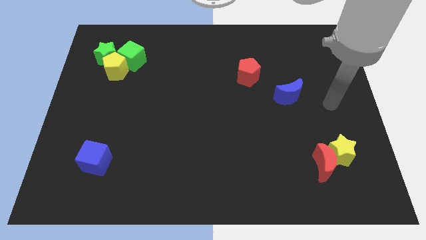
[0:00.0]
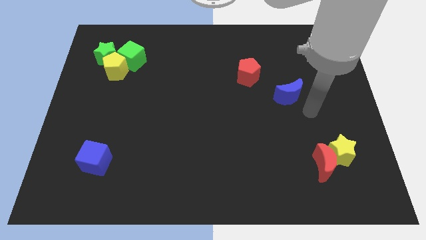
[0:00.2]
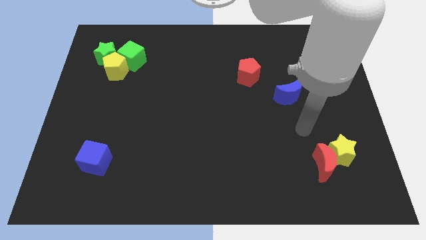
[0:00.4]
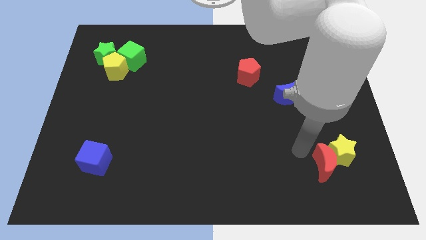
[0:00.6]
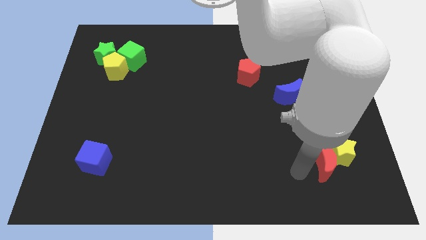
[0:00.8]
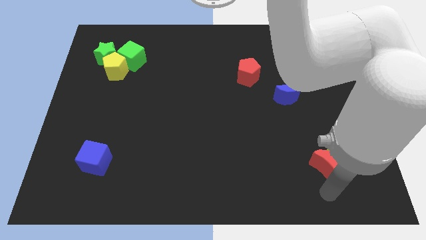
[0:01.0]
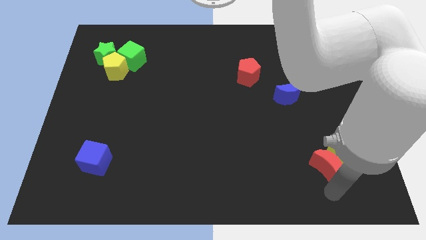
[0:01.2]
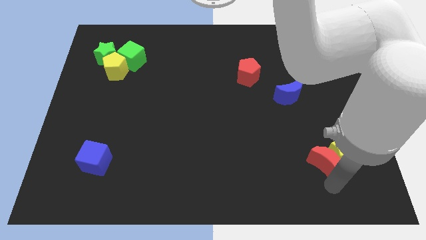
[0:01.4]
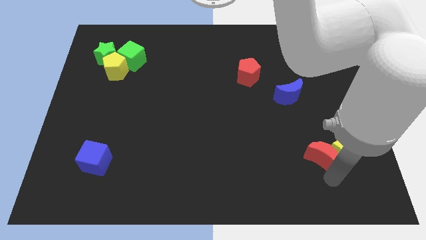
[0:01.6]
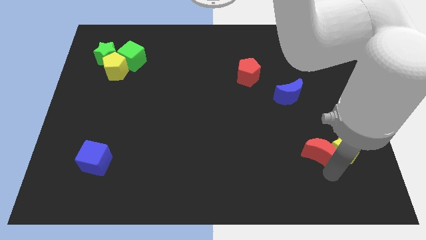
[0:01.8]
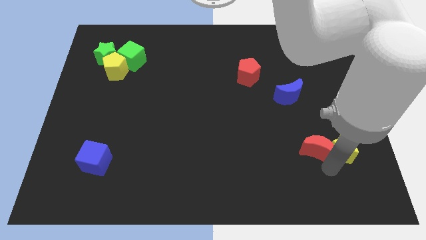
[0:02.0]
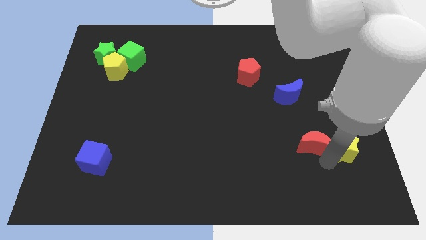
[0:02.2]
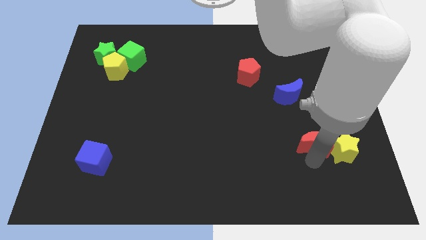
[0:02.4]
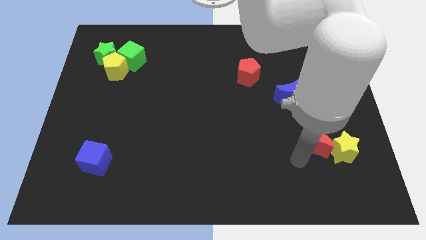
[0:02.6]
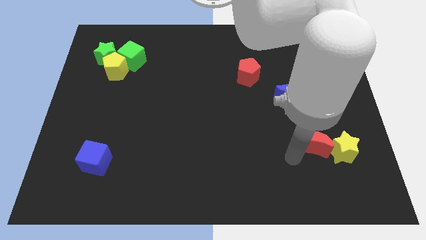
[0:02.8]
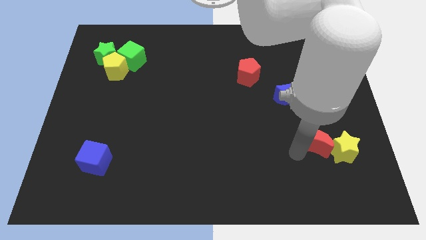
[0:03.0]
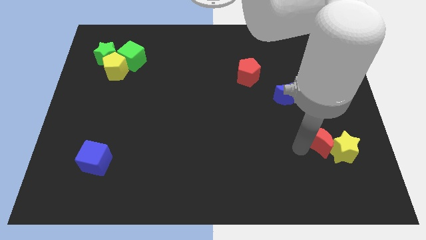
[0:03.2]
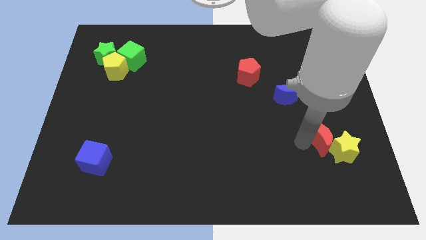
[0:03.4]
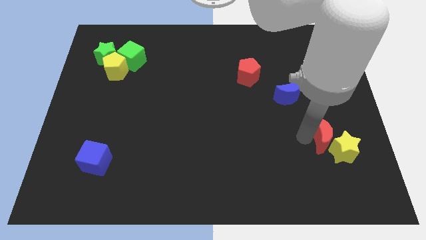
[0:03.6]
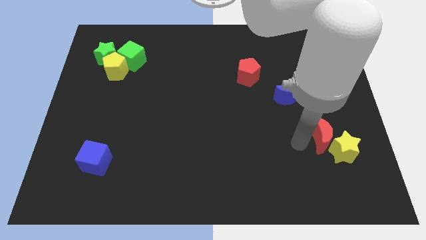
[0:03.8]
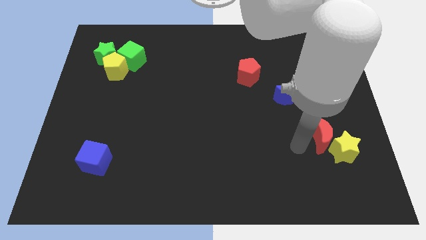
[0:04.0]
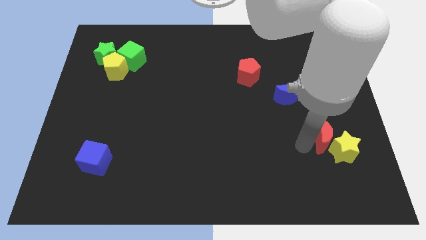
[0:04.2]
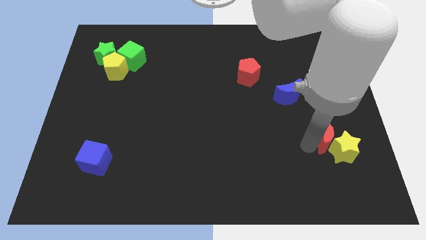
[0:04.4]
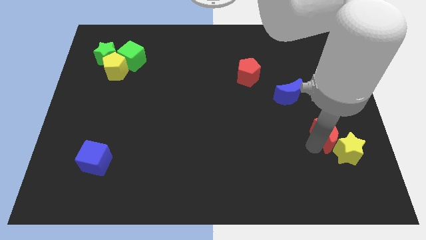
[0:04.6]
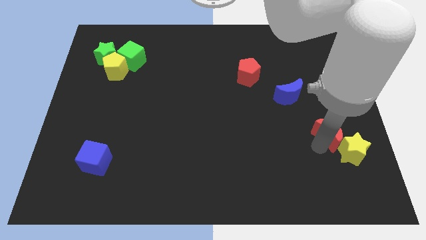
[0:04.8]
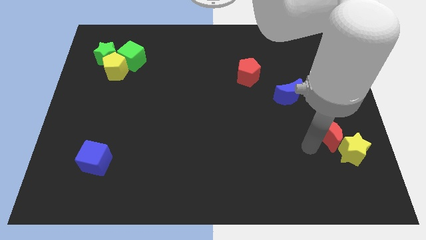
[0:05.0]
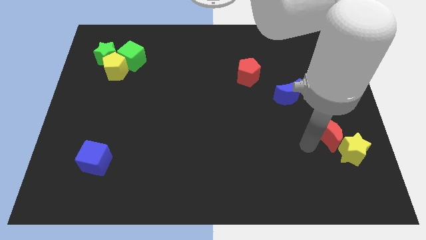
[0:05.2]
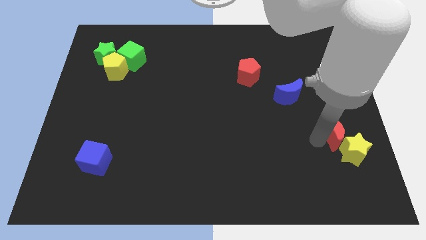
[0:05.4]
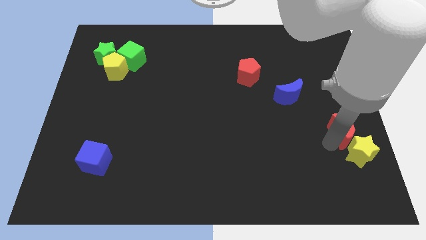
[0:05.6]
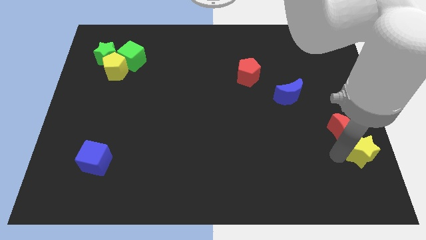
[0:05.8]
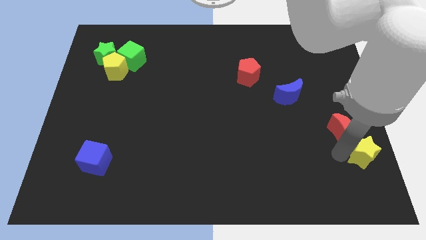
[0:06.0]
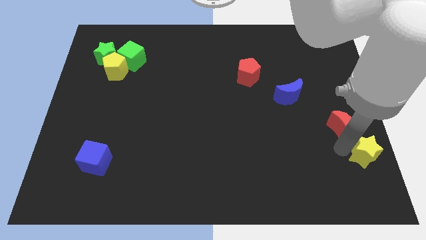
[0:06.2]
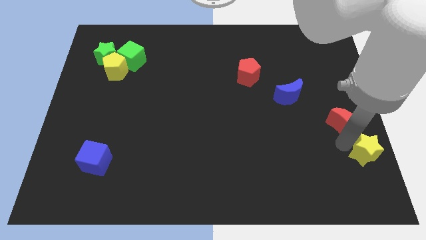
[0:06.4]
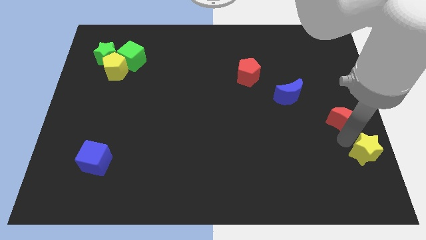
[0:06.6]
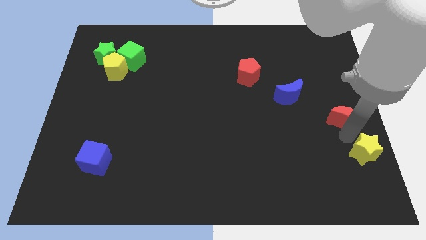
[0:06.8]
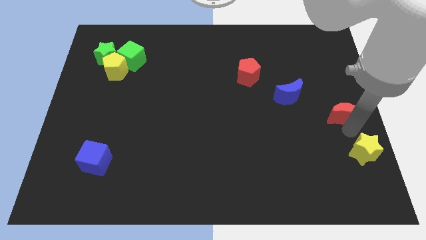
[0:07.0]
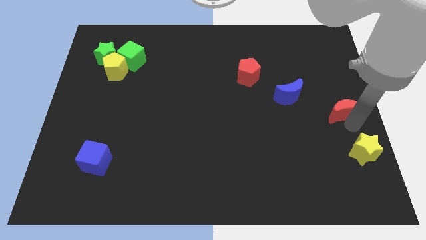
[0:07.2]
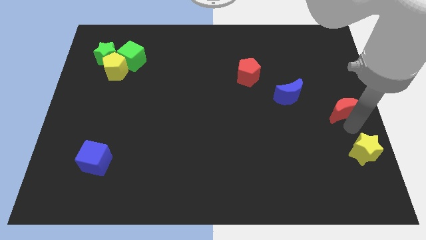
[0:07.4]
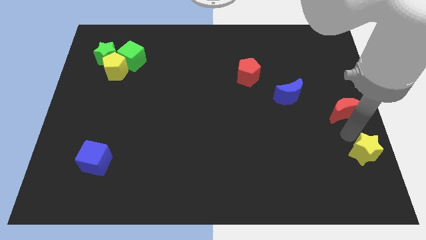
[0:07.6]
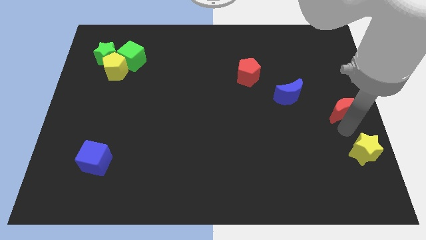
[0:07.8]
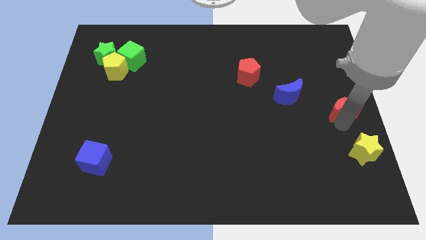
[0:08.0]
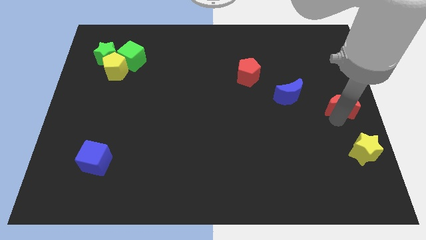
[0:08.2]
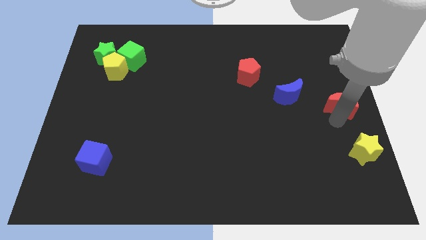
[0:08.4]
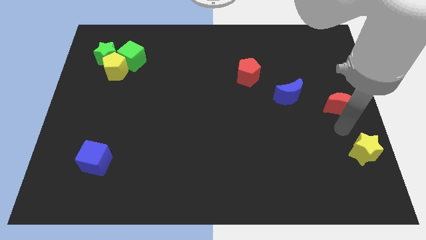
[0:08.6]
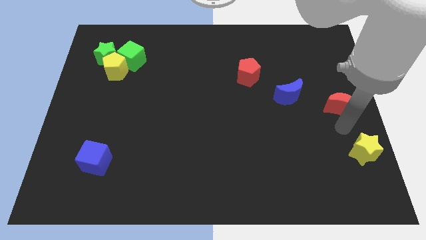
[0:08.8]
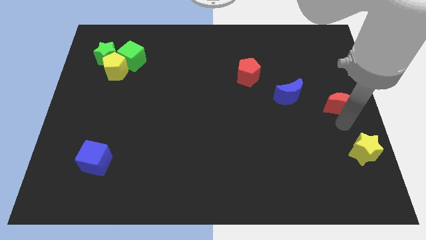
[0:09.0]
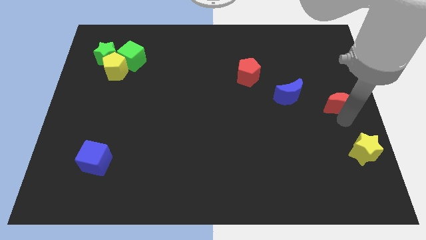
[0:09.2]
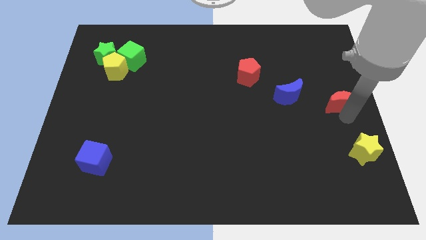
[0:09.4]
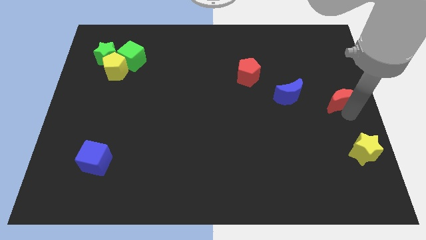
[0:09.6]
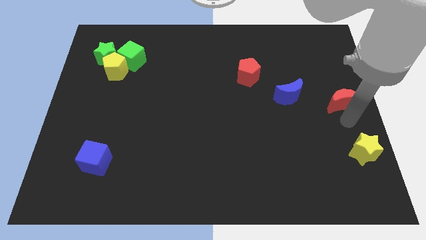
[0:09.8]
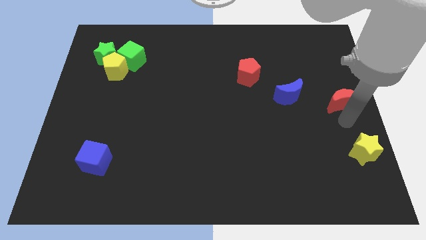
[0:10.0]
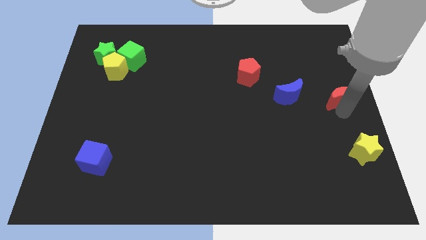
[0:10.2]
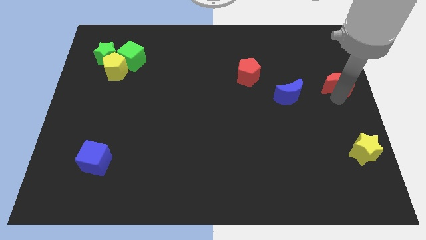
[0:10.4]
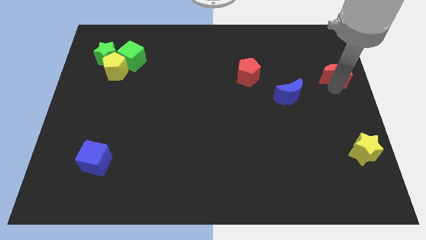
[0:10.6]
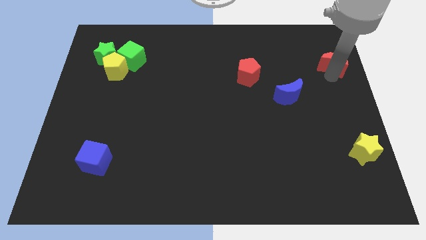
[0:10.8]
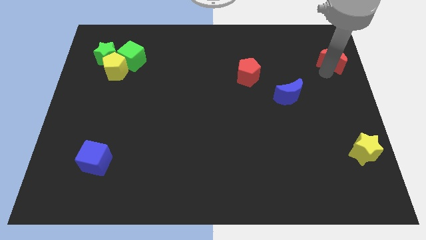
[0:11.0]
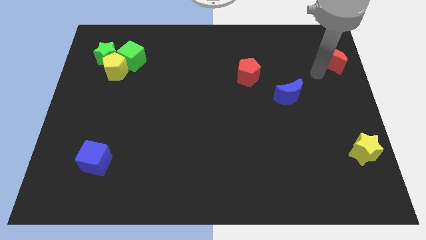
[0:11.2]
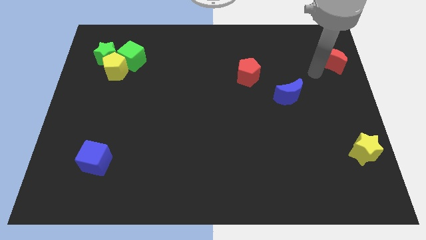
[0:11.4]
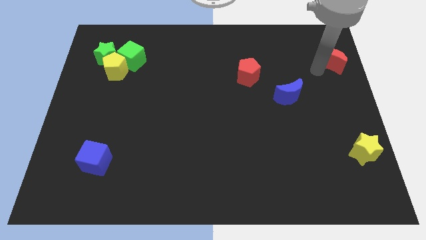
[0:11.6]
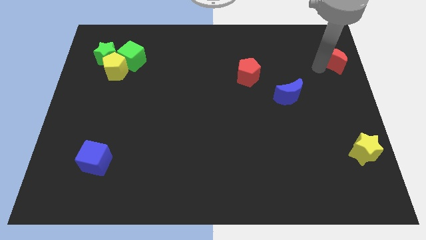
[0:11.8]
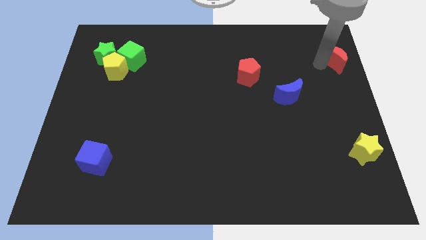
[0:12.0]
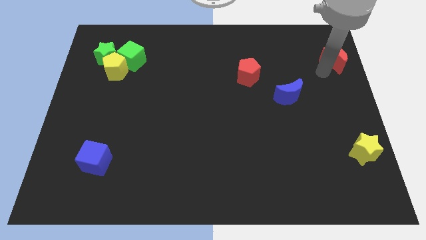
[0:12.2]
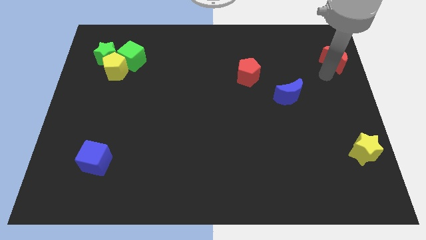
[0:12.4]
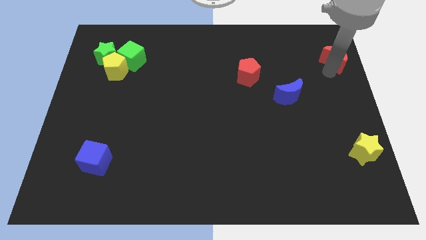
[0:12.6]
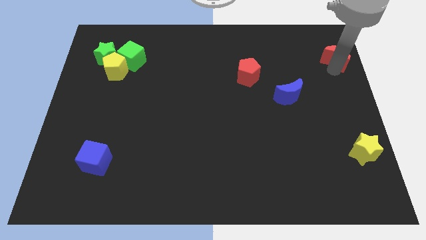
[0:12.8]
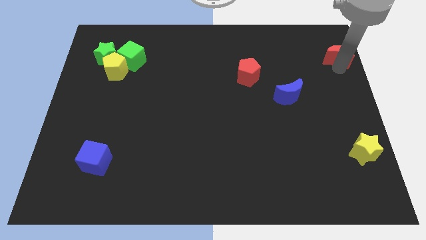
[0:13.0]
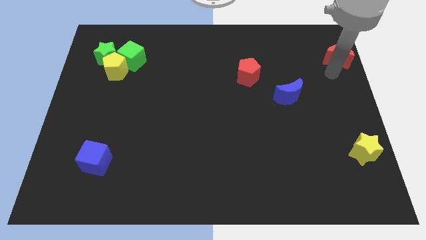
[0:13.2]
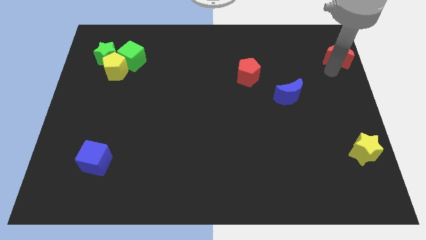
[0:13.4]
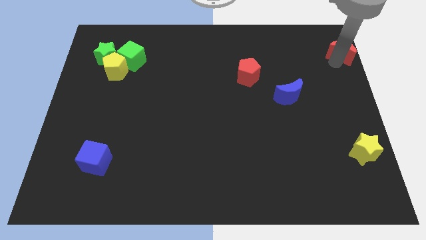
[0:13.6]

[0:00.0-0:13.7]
slide the red moon to the upper right corner
